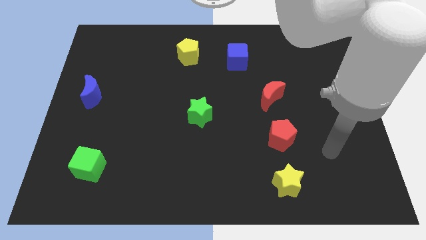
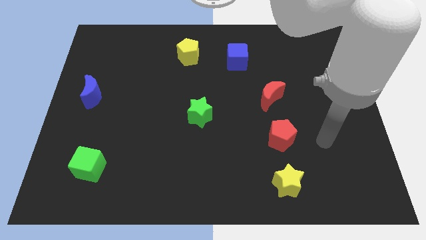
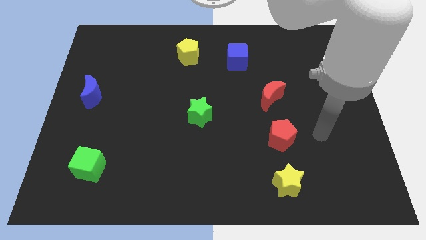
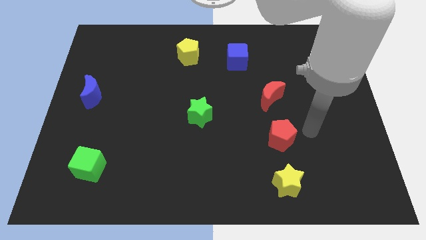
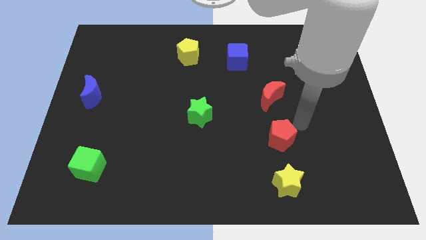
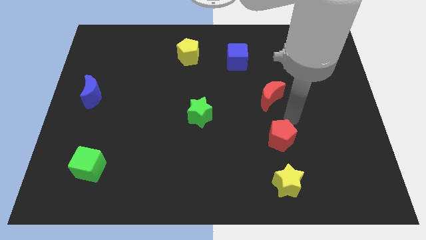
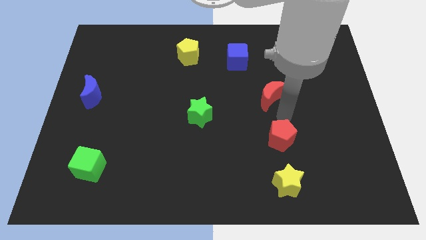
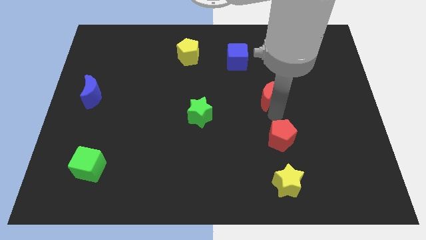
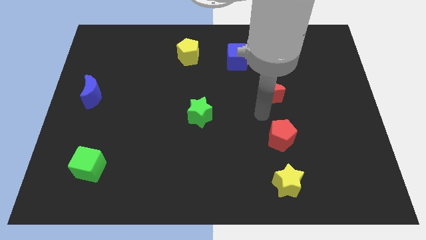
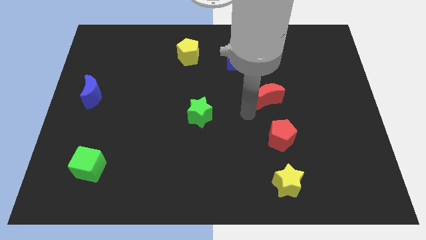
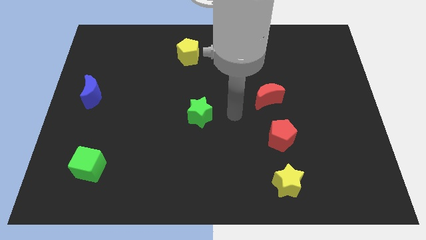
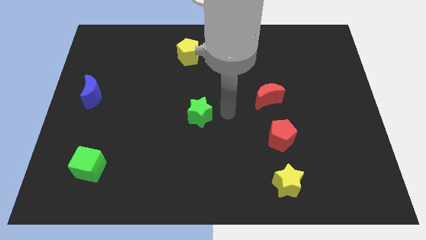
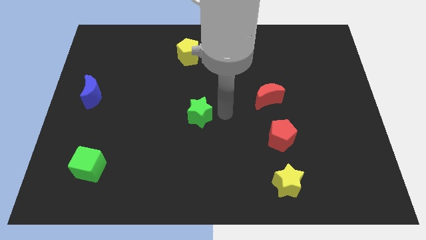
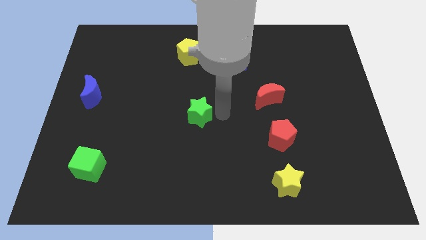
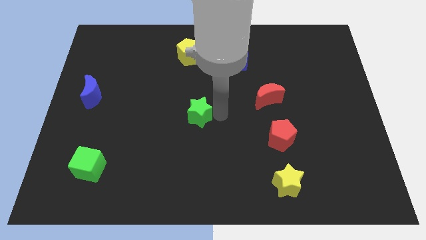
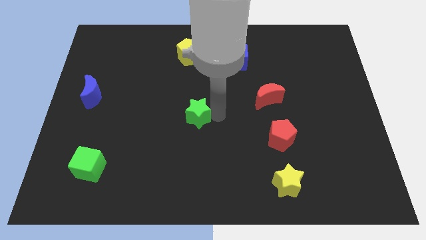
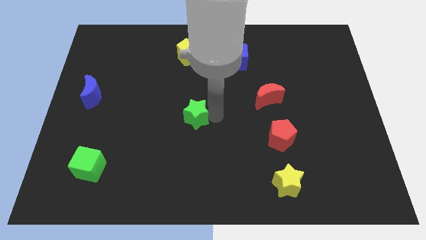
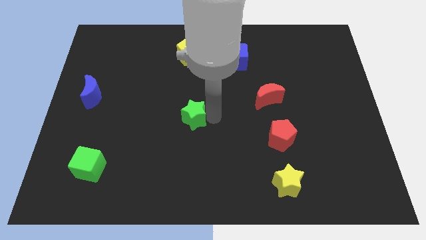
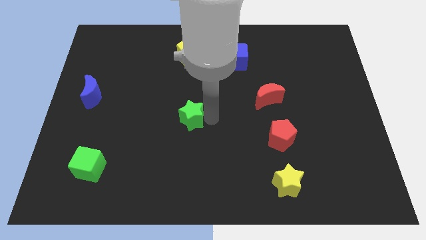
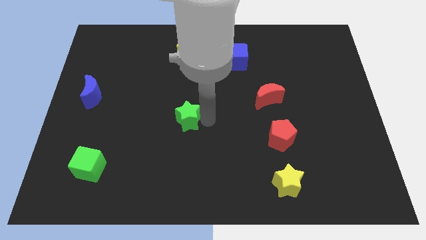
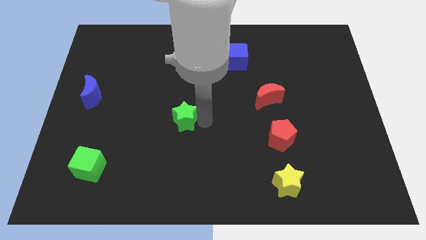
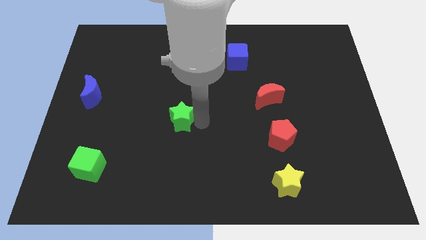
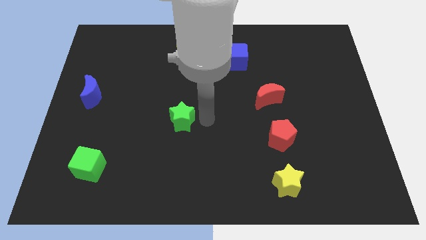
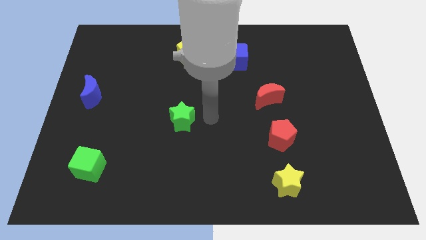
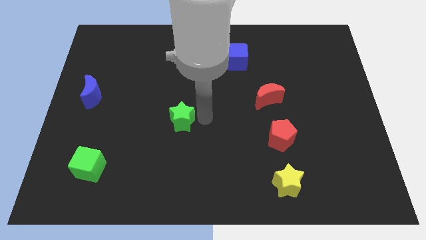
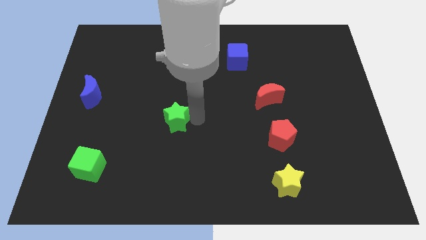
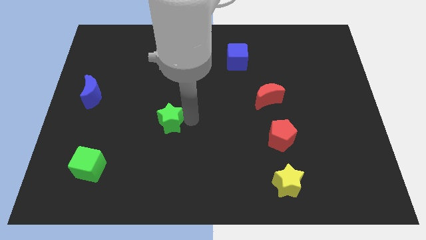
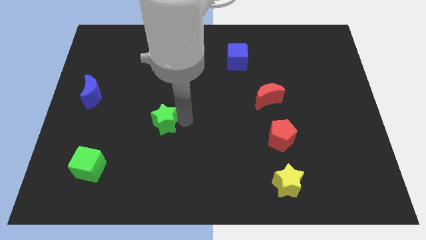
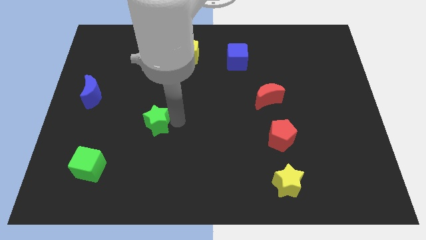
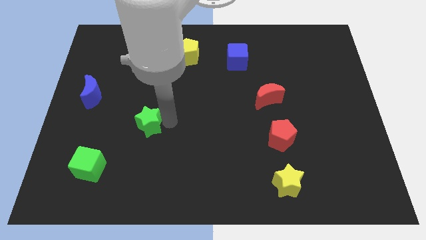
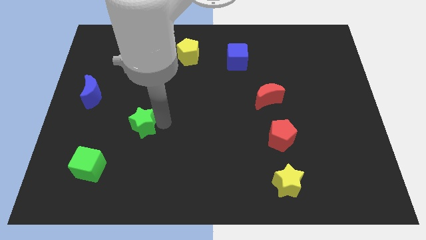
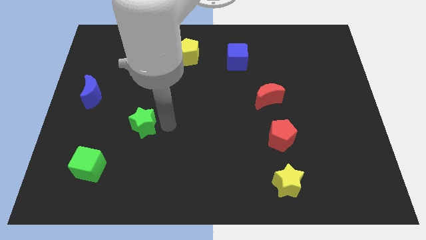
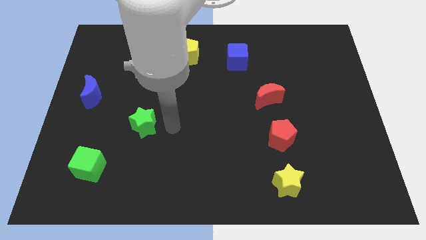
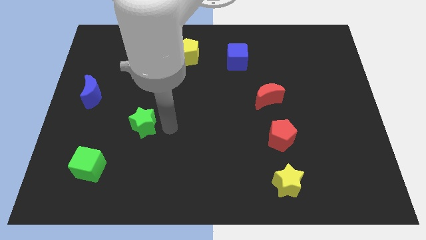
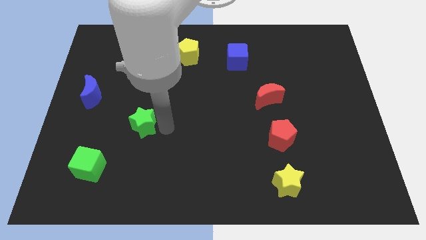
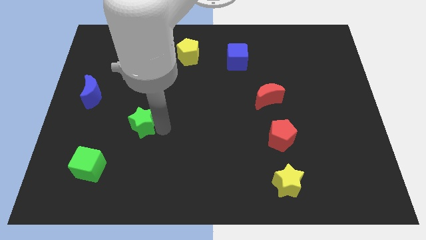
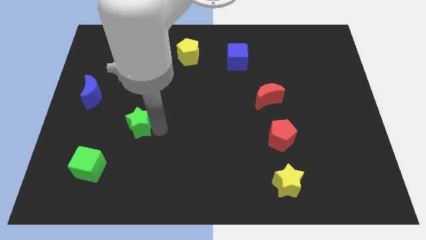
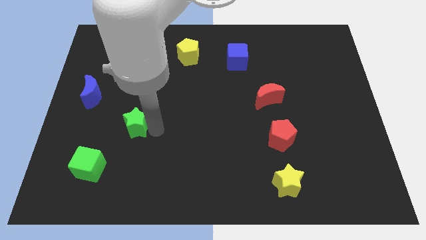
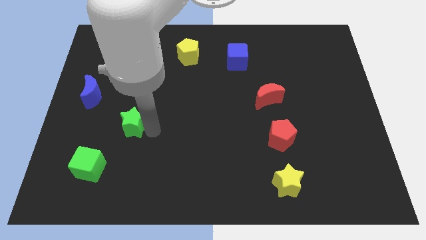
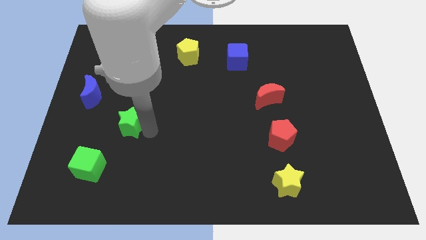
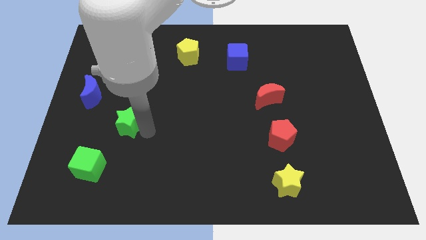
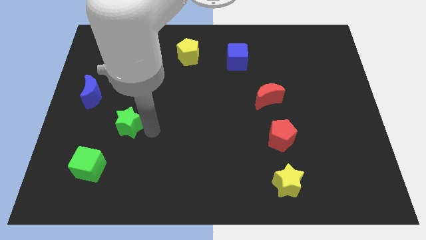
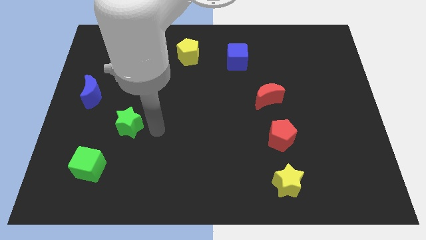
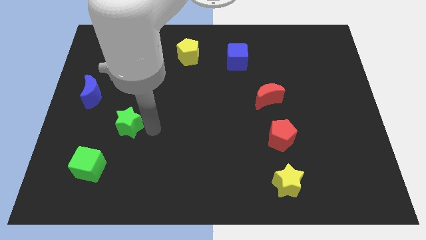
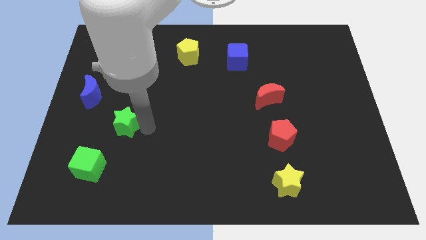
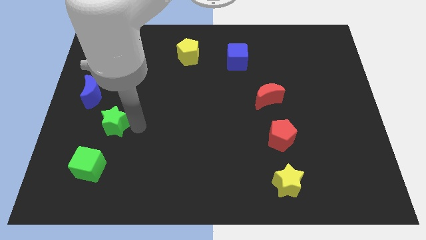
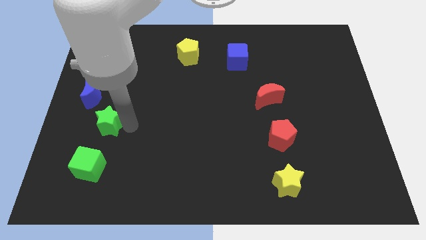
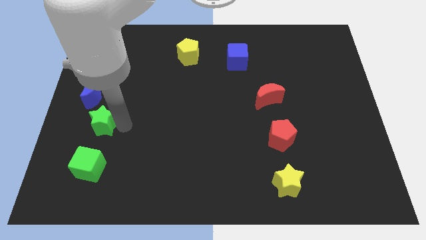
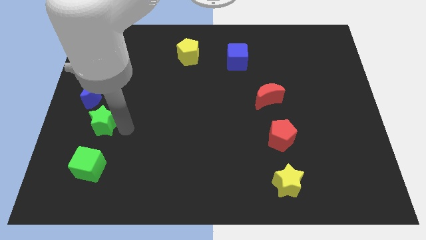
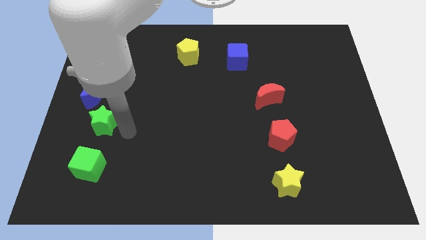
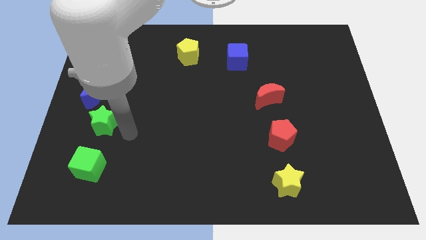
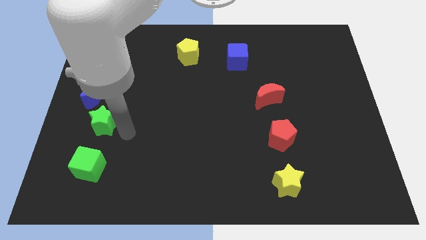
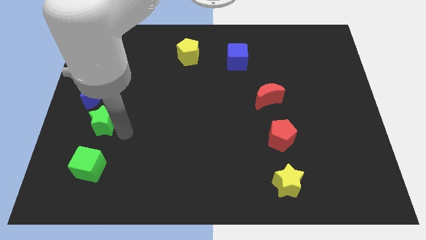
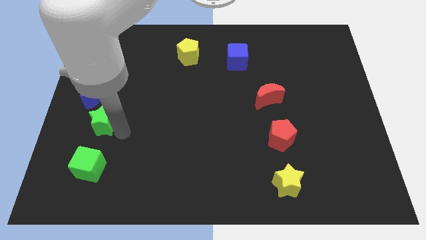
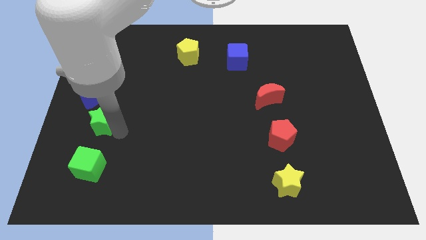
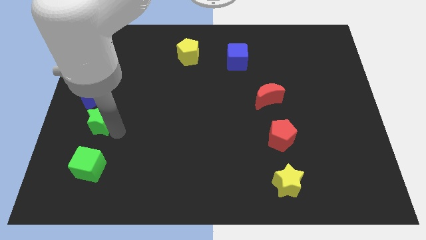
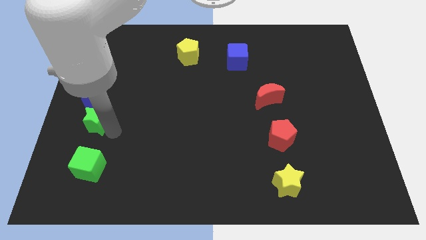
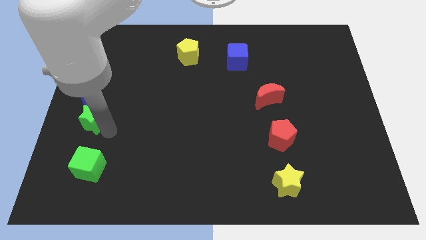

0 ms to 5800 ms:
slide the green star to the left side of the board

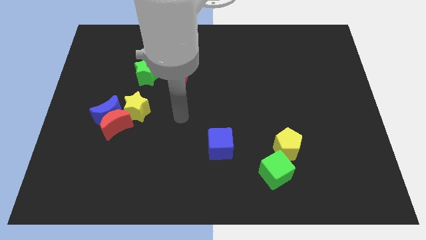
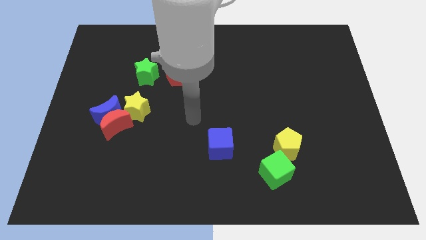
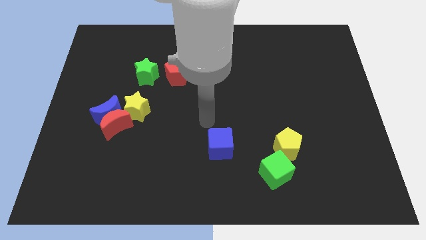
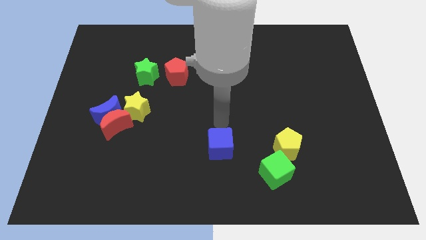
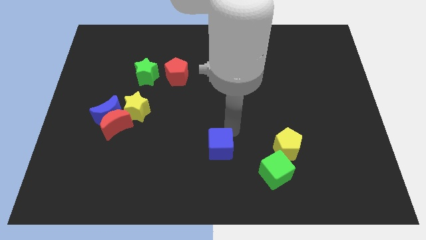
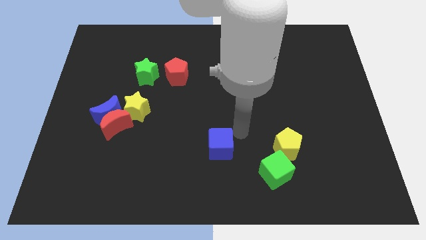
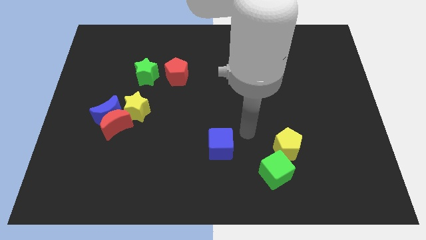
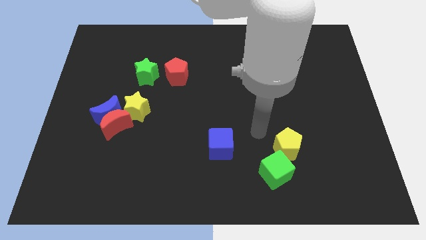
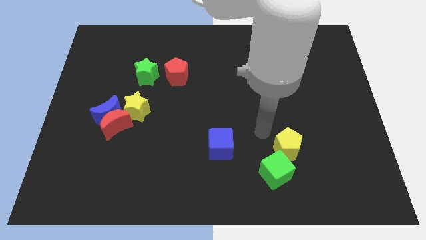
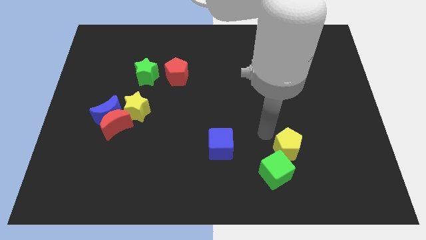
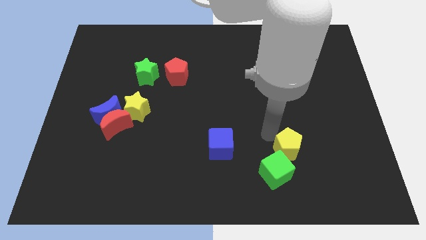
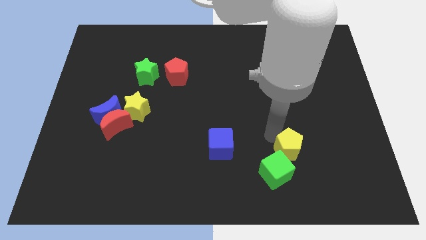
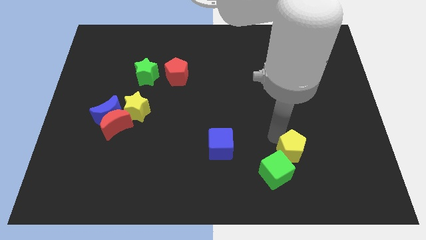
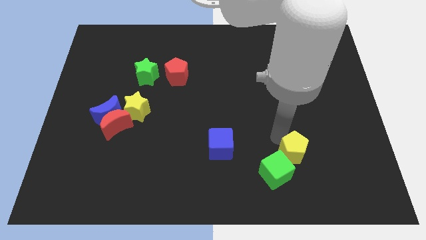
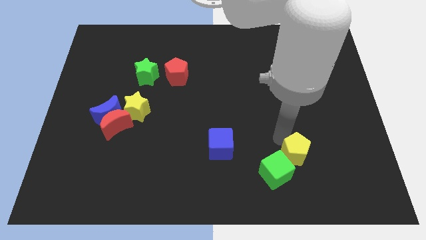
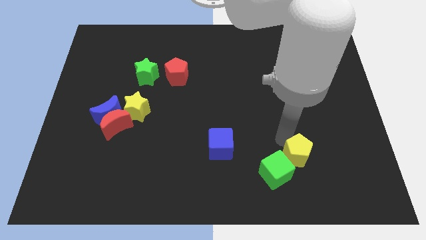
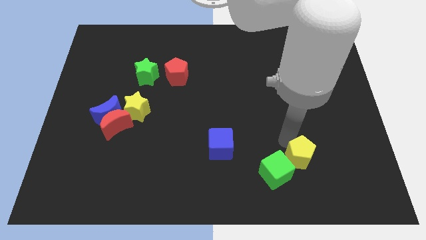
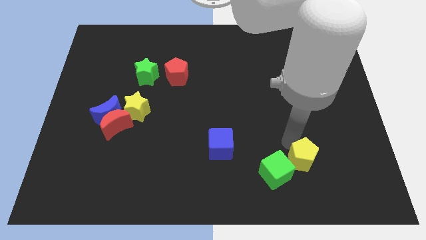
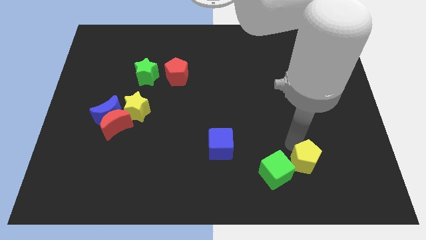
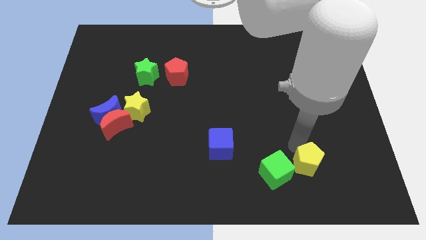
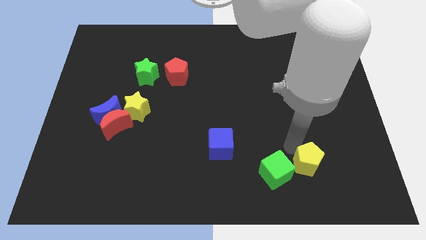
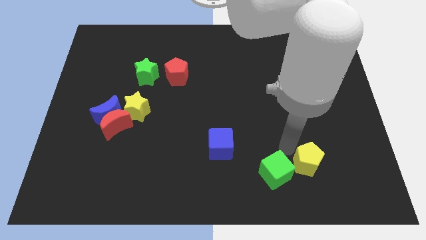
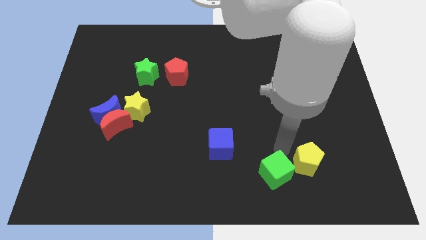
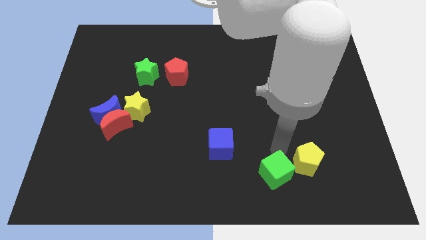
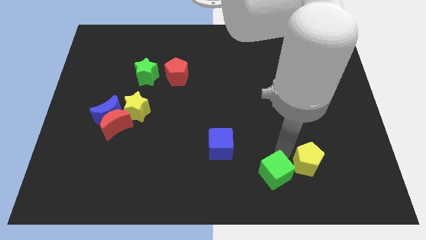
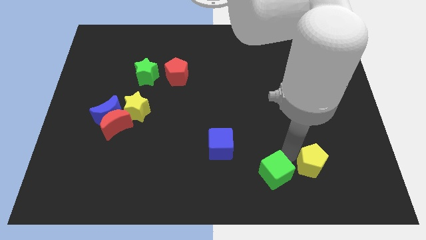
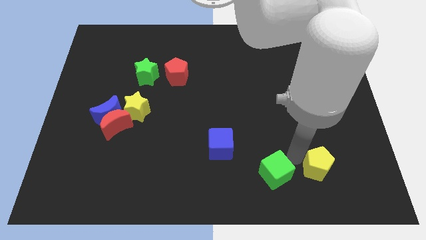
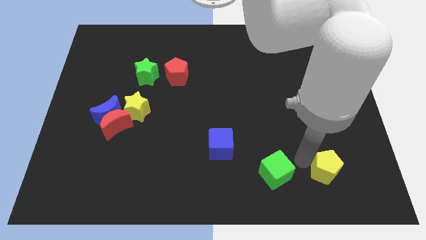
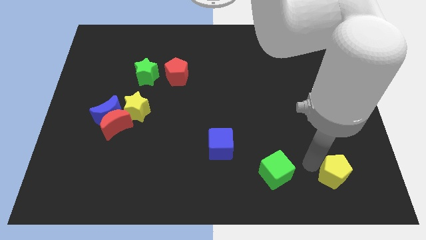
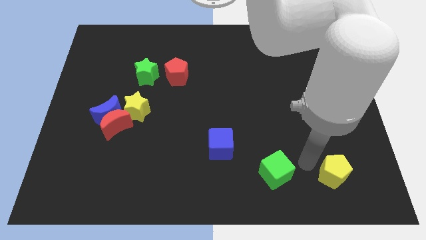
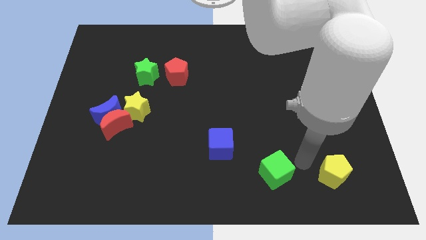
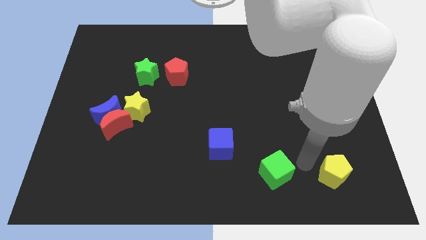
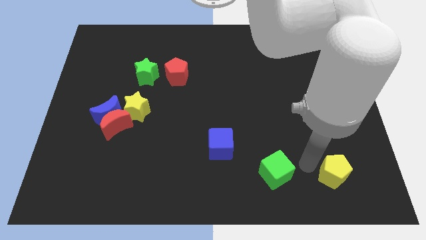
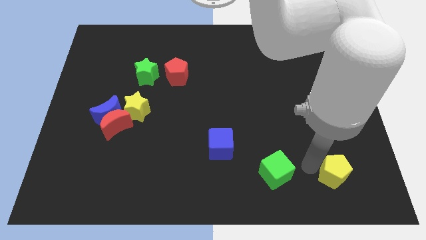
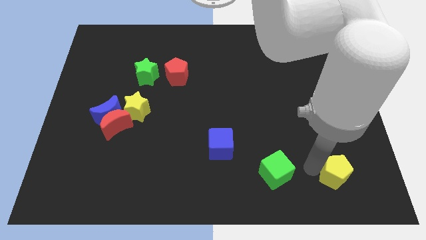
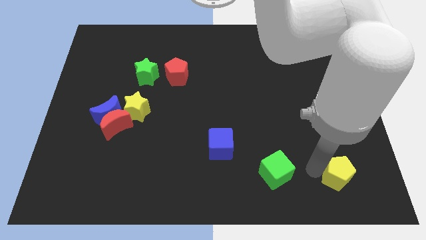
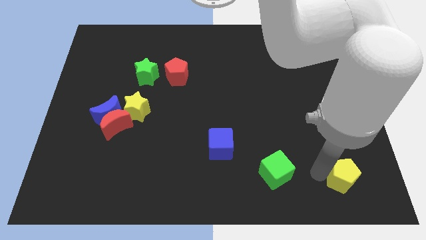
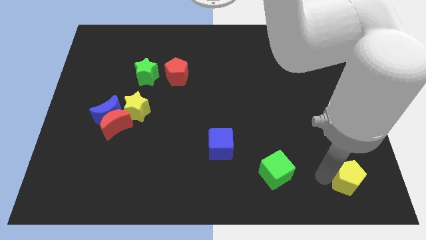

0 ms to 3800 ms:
move the yellow pentagon to the bottom right
